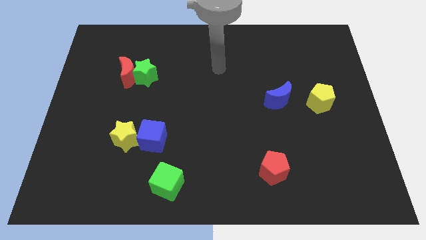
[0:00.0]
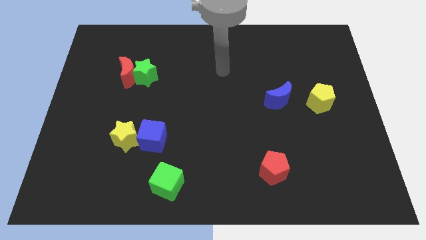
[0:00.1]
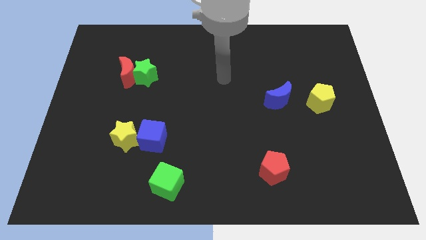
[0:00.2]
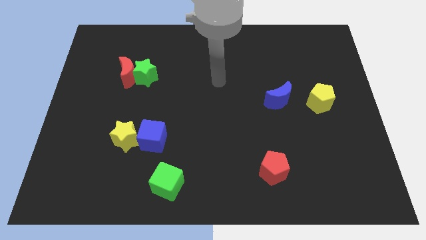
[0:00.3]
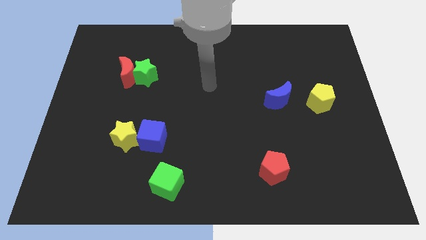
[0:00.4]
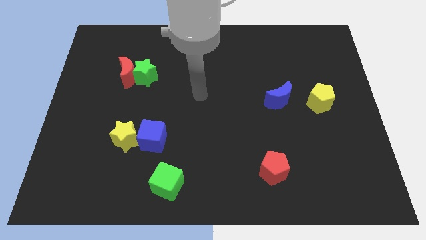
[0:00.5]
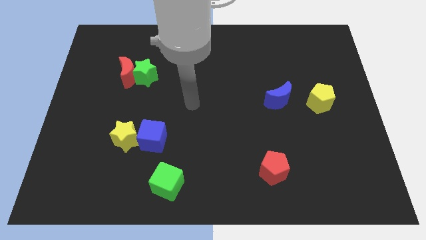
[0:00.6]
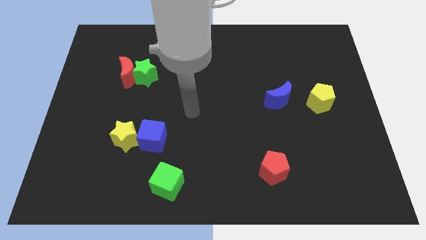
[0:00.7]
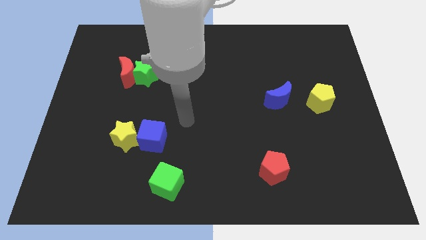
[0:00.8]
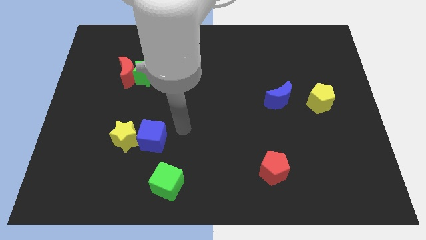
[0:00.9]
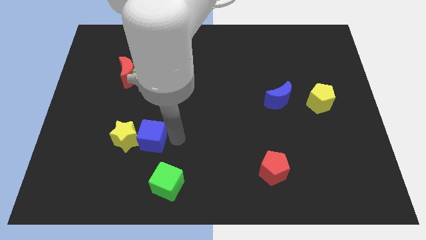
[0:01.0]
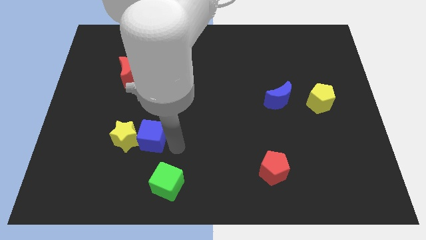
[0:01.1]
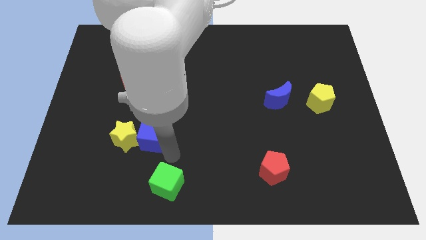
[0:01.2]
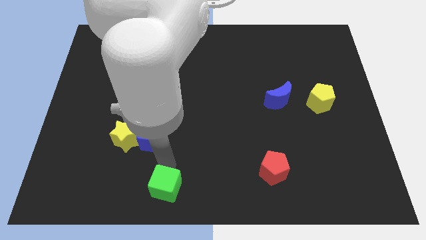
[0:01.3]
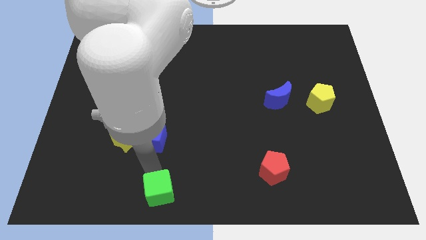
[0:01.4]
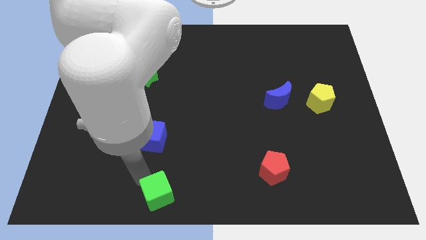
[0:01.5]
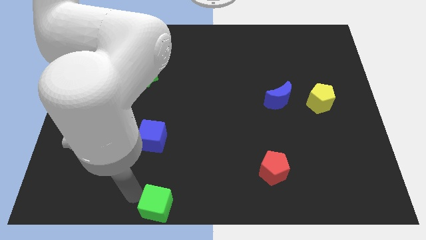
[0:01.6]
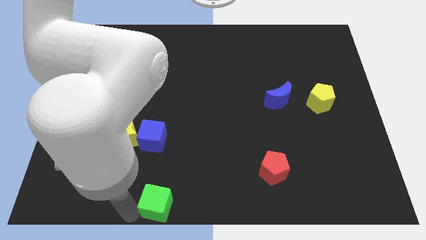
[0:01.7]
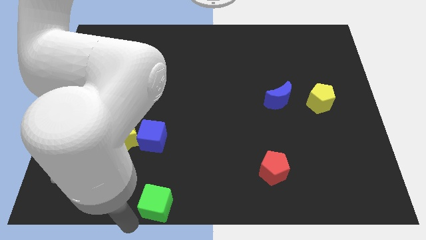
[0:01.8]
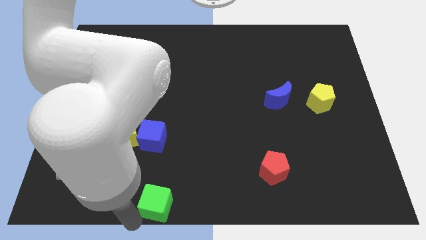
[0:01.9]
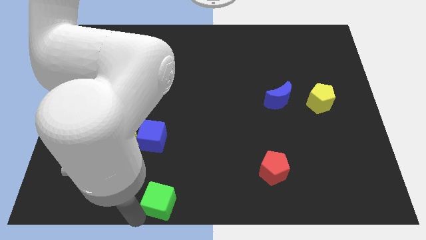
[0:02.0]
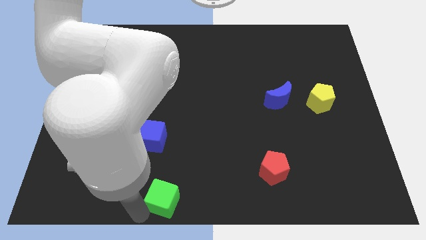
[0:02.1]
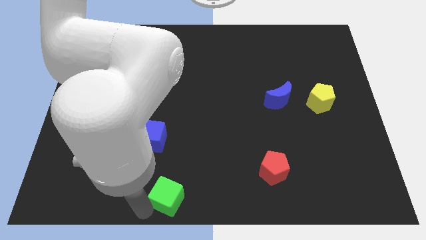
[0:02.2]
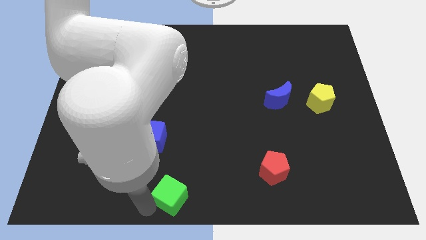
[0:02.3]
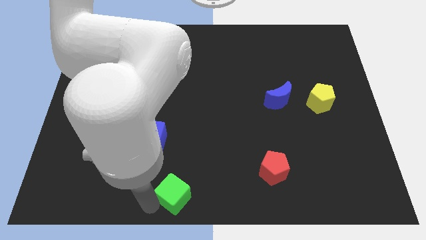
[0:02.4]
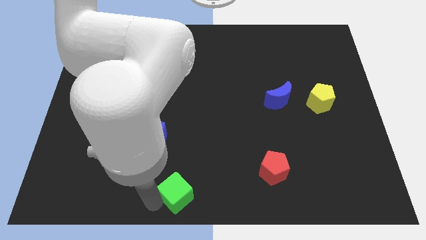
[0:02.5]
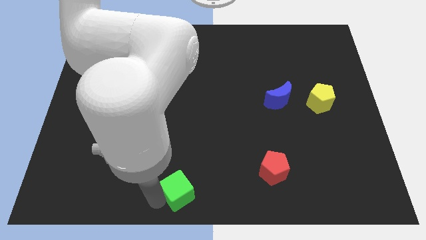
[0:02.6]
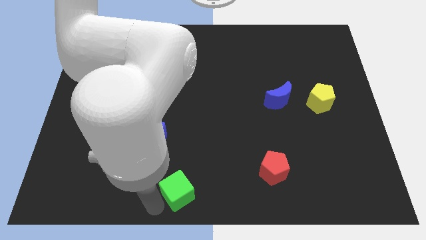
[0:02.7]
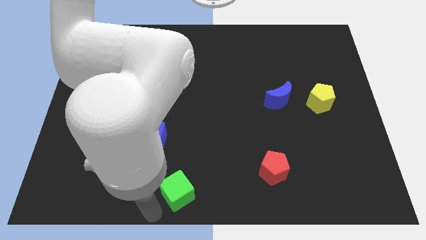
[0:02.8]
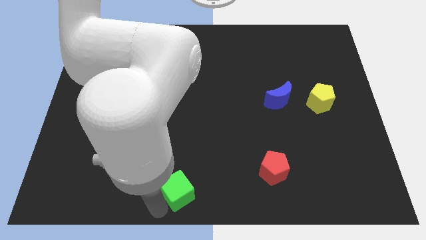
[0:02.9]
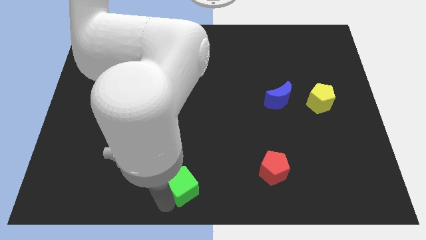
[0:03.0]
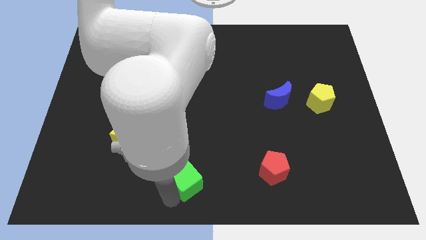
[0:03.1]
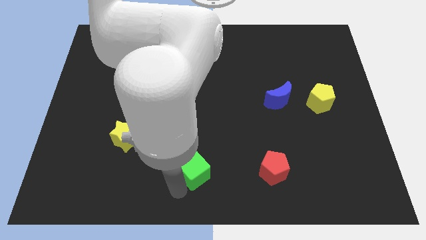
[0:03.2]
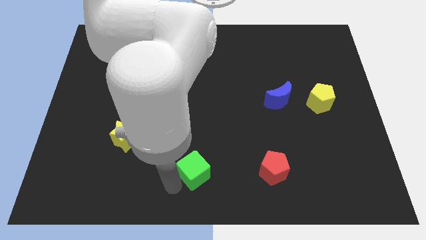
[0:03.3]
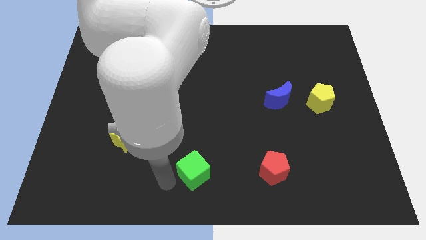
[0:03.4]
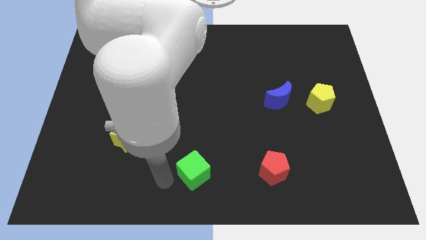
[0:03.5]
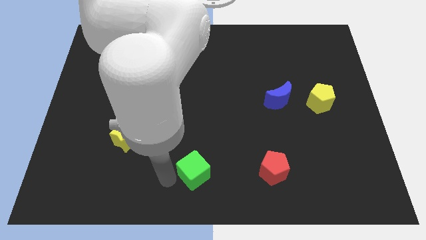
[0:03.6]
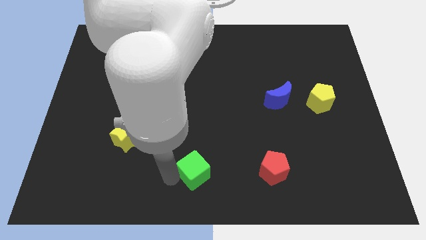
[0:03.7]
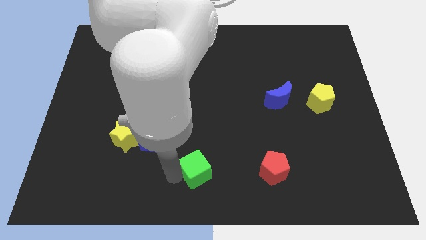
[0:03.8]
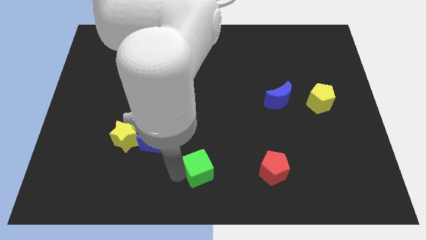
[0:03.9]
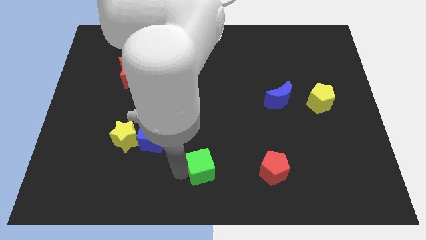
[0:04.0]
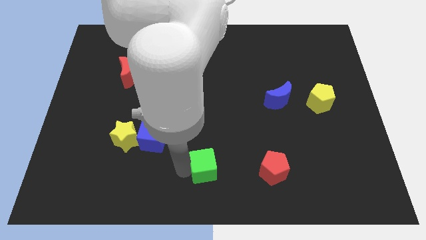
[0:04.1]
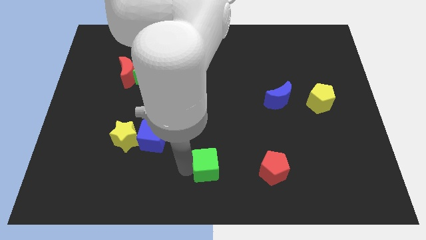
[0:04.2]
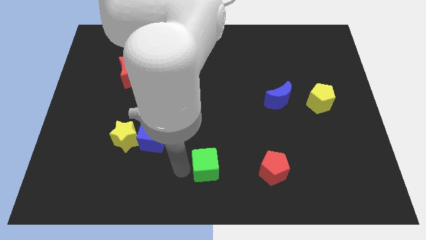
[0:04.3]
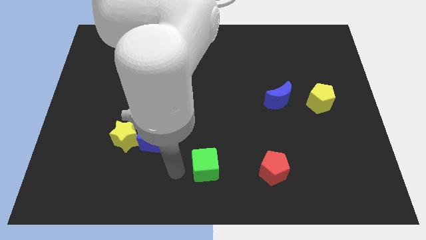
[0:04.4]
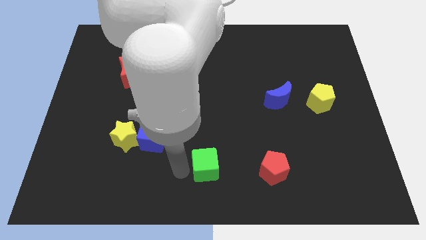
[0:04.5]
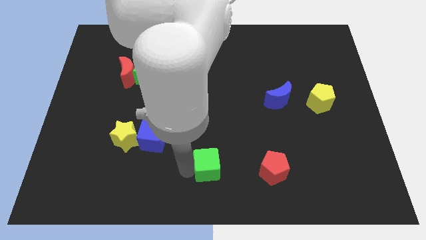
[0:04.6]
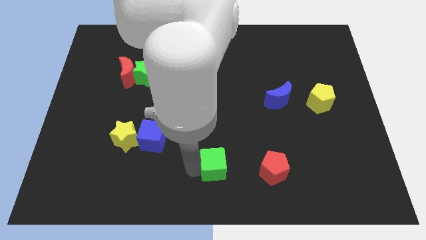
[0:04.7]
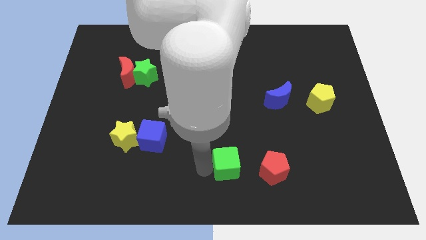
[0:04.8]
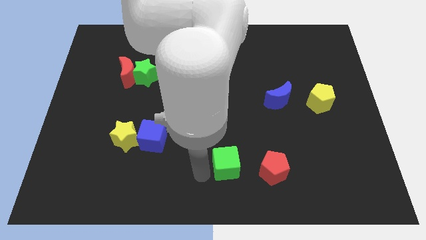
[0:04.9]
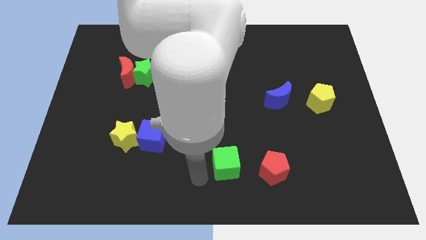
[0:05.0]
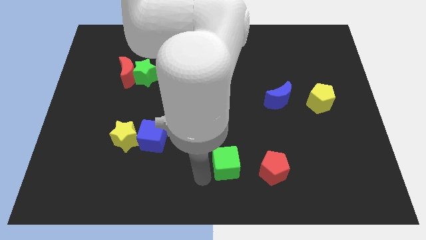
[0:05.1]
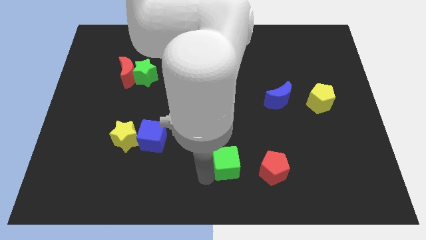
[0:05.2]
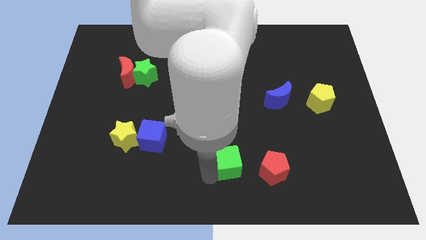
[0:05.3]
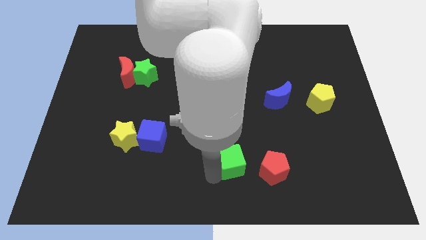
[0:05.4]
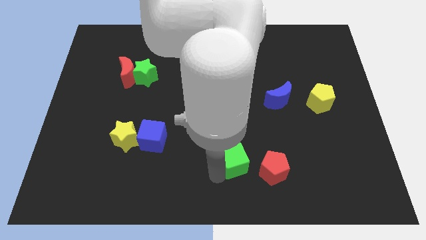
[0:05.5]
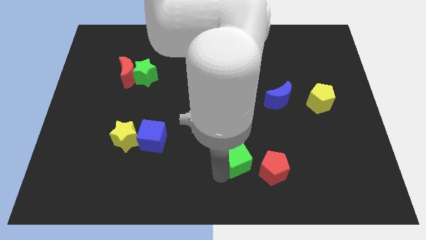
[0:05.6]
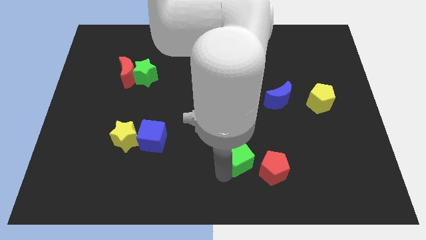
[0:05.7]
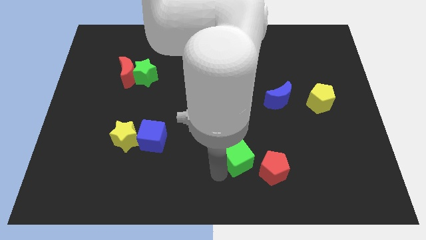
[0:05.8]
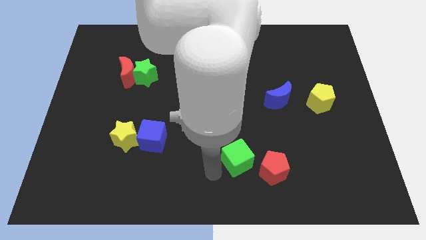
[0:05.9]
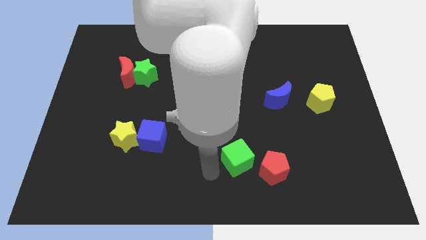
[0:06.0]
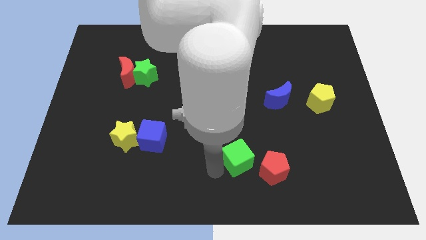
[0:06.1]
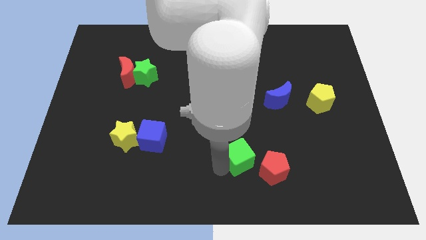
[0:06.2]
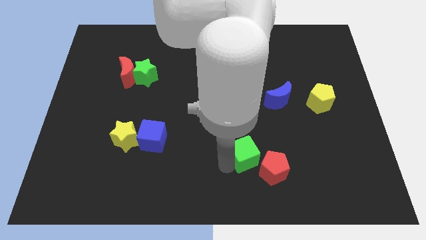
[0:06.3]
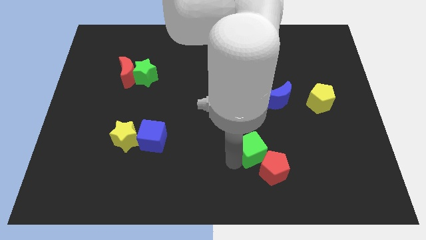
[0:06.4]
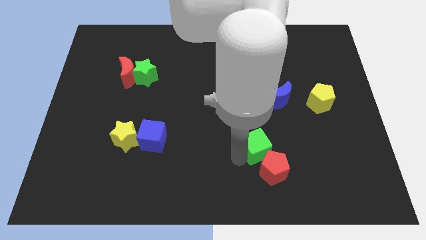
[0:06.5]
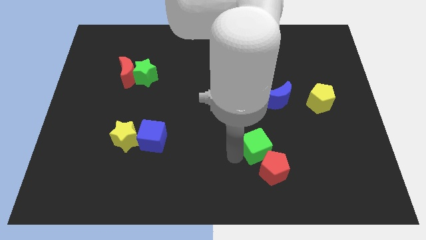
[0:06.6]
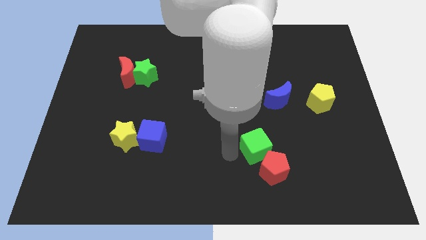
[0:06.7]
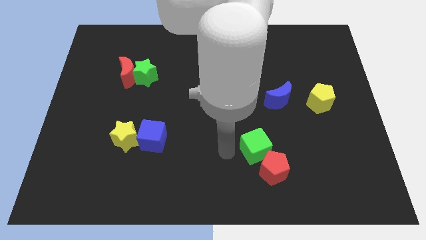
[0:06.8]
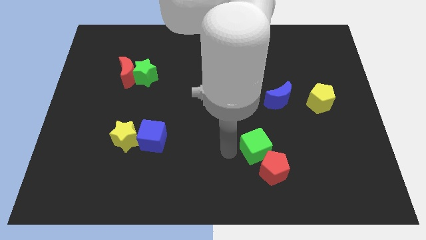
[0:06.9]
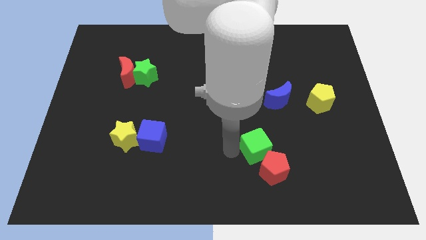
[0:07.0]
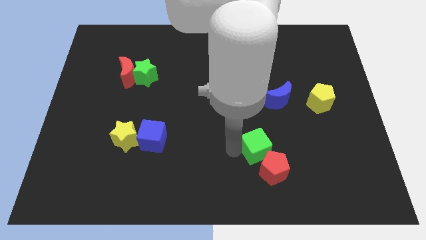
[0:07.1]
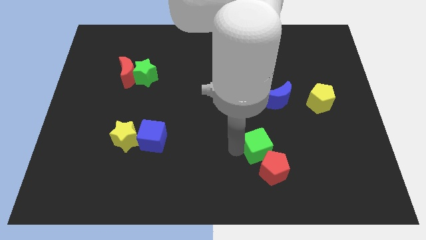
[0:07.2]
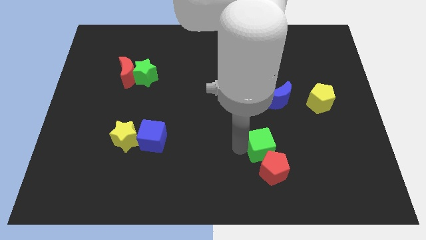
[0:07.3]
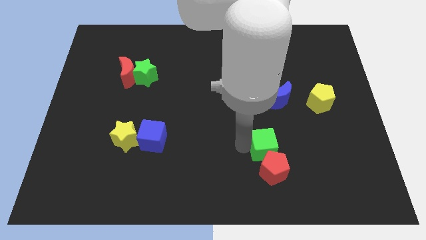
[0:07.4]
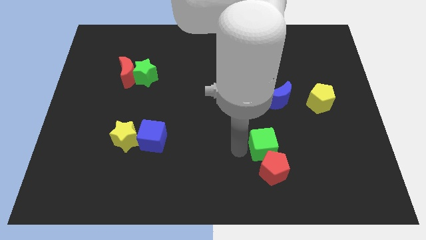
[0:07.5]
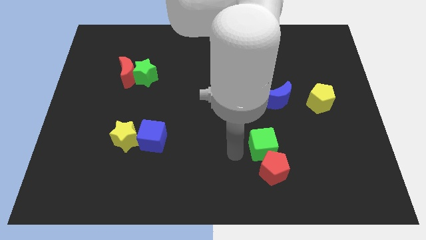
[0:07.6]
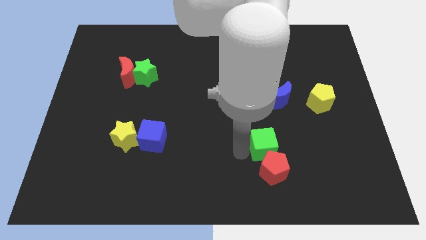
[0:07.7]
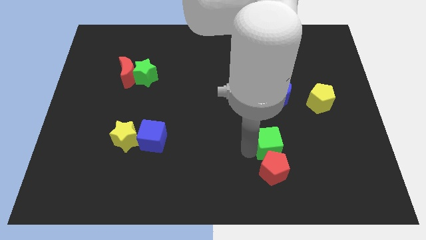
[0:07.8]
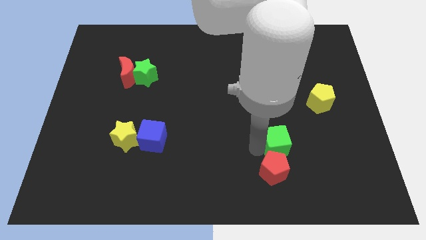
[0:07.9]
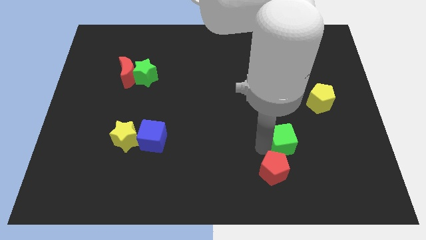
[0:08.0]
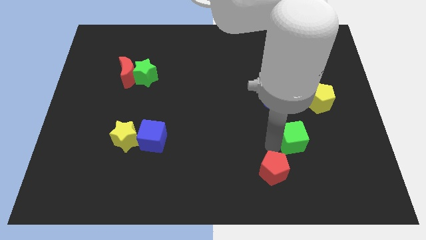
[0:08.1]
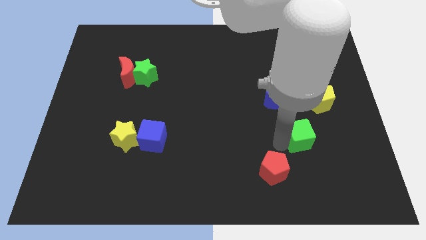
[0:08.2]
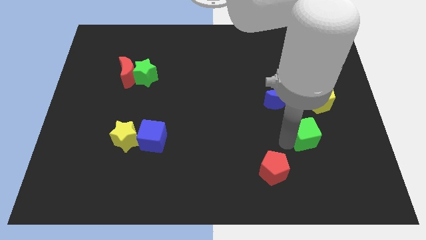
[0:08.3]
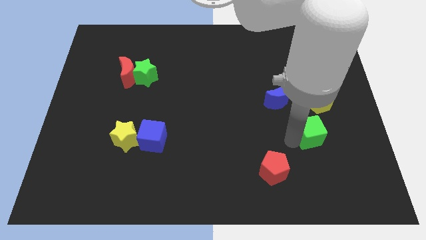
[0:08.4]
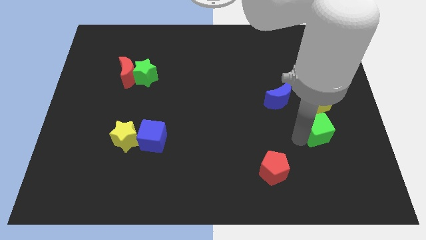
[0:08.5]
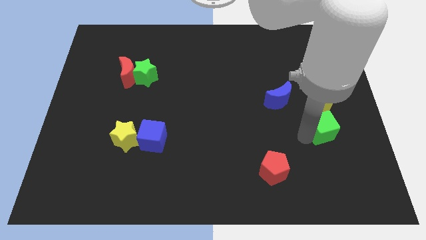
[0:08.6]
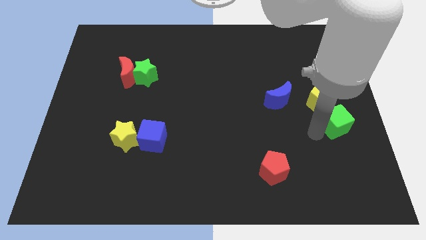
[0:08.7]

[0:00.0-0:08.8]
move the green cube to the right side
